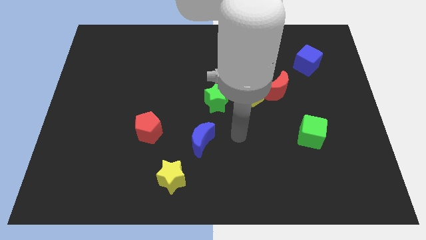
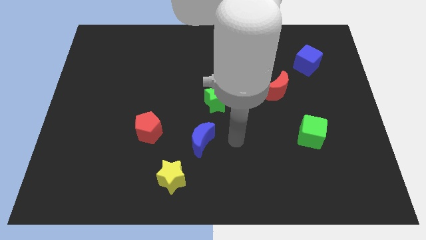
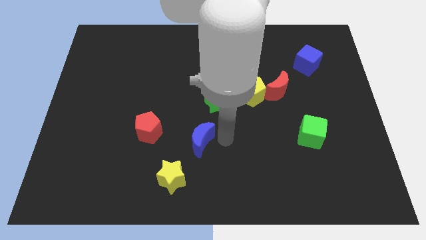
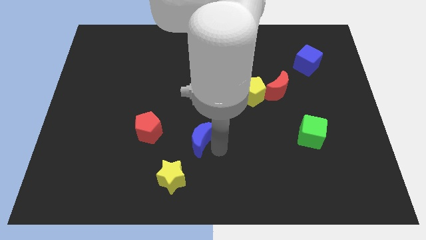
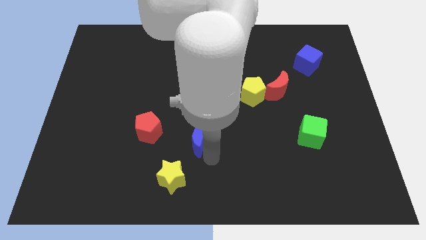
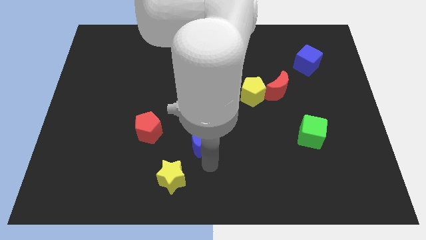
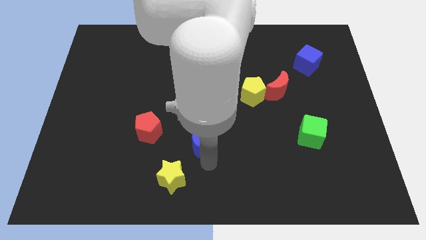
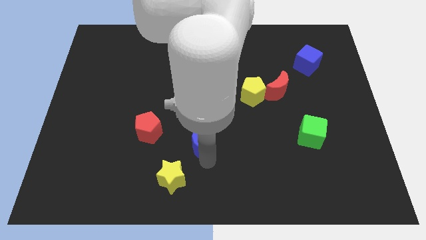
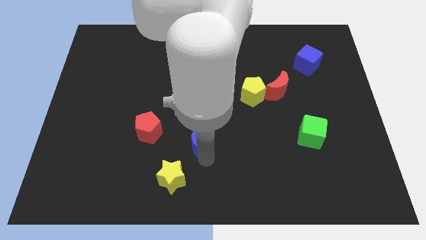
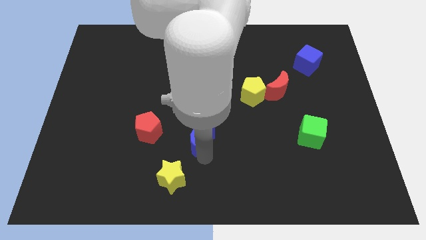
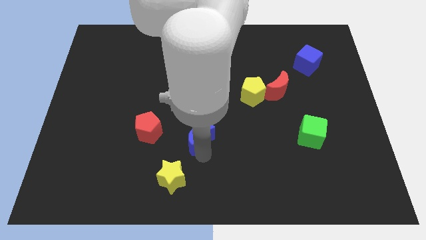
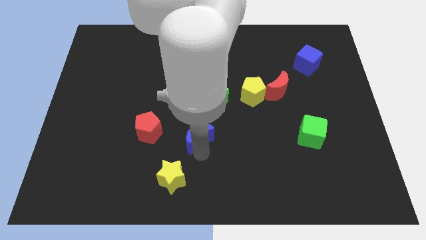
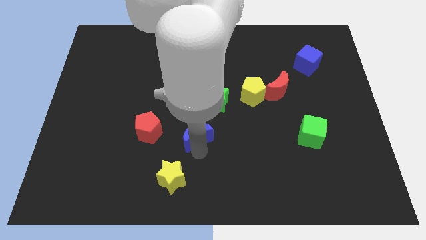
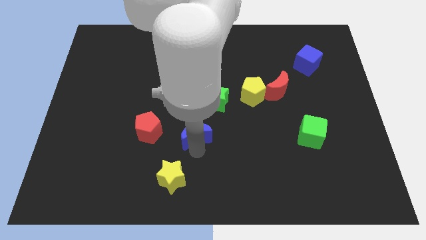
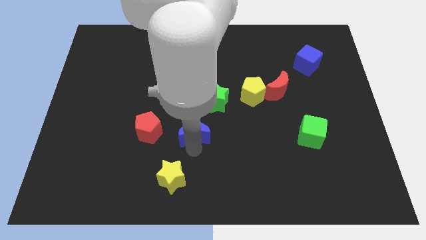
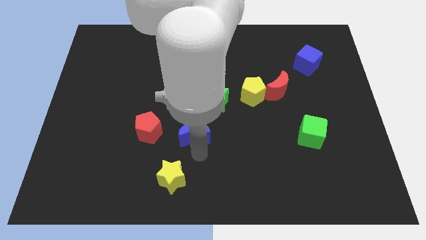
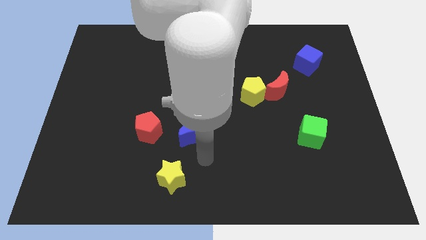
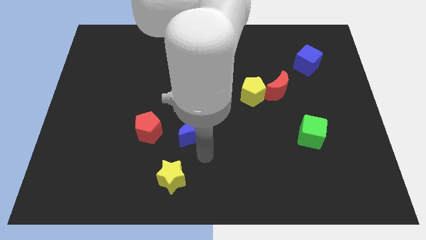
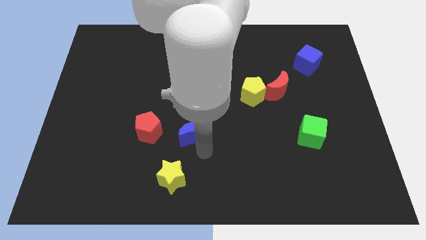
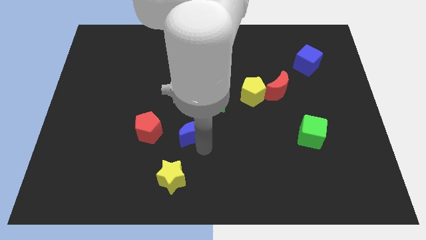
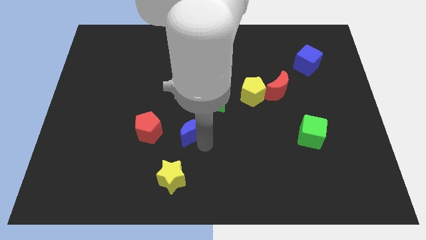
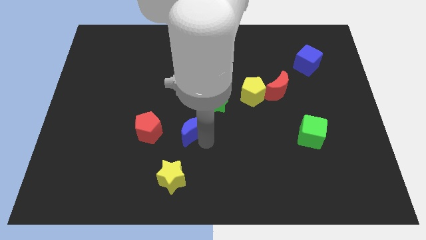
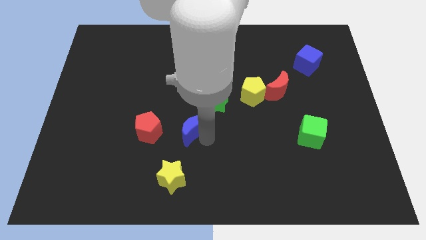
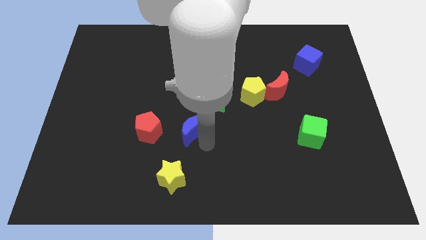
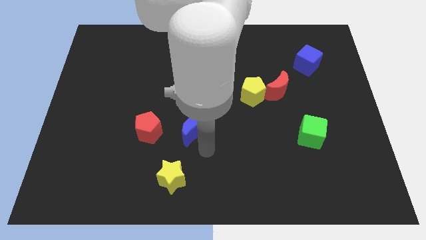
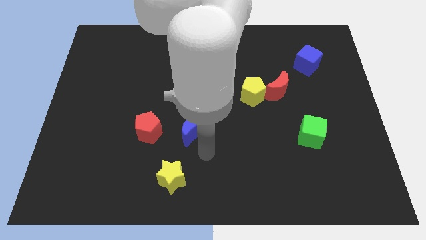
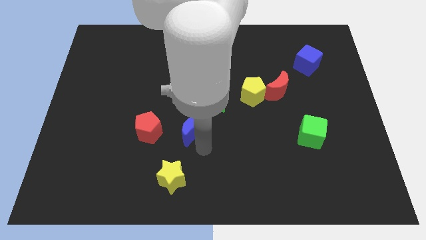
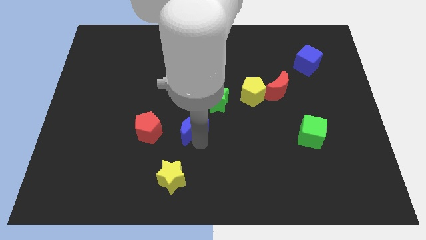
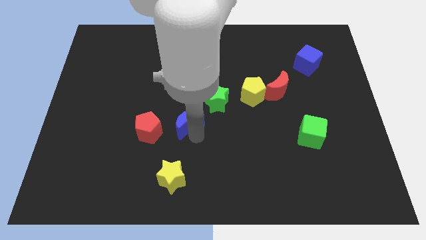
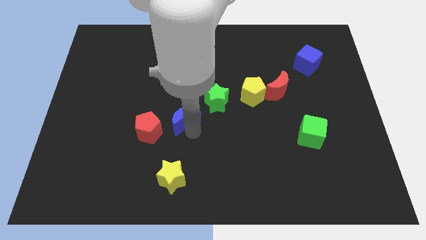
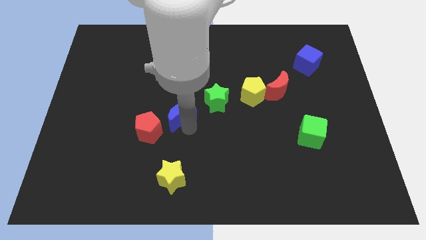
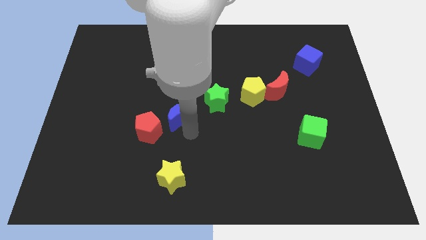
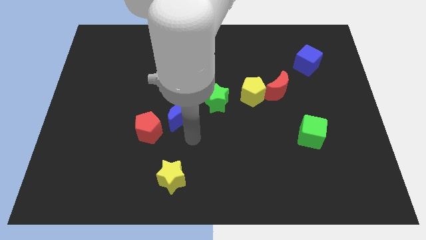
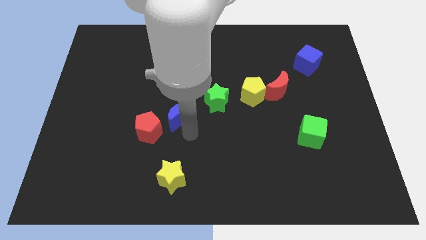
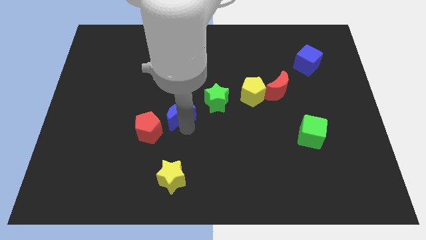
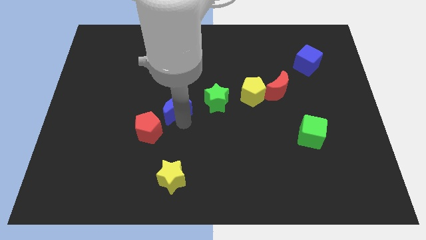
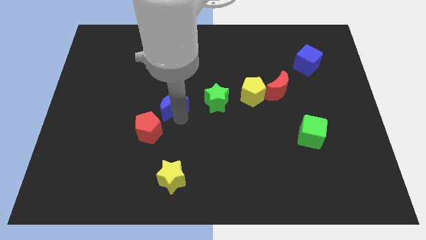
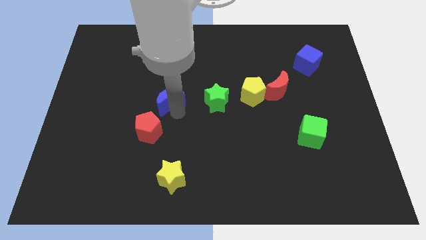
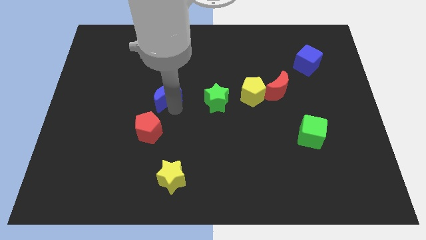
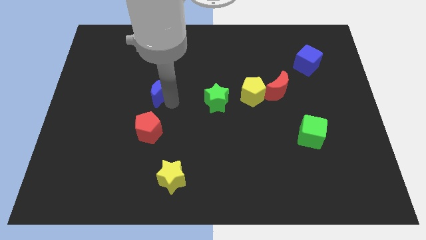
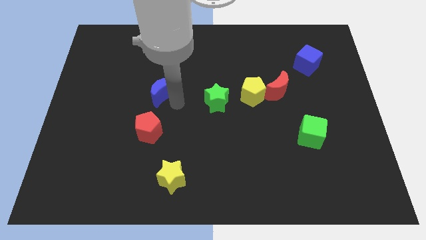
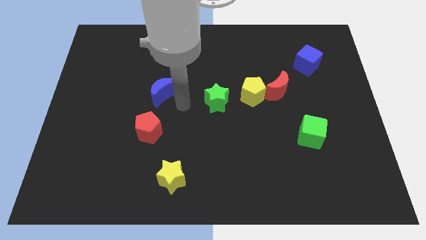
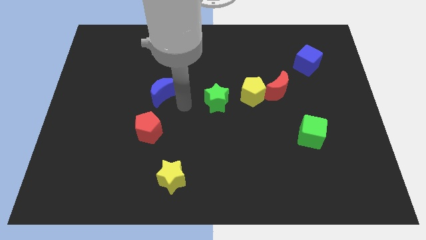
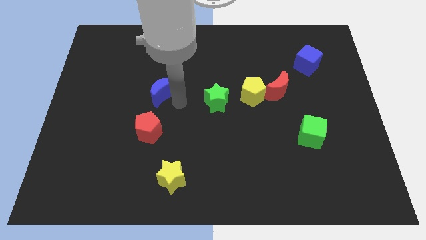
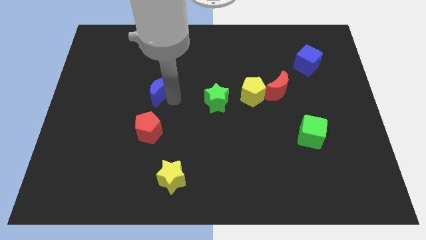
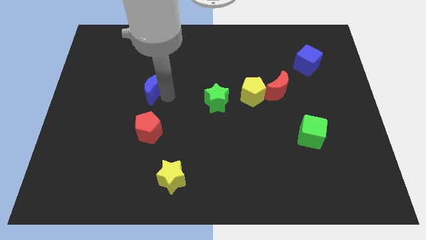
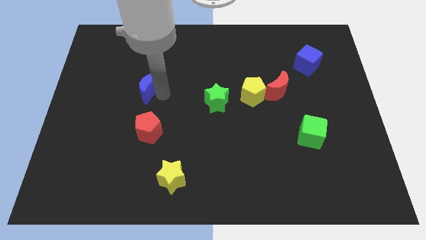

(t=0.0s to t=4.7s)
push the blue moon up and then to the left

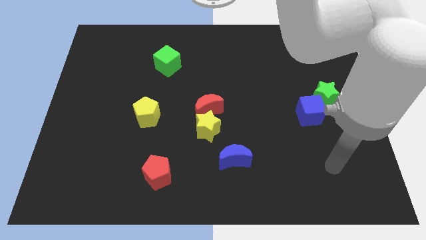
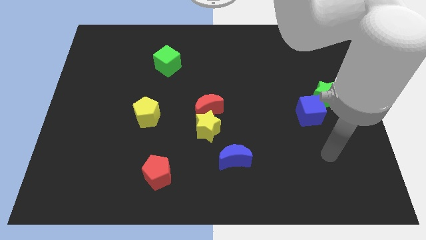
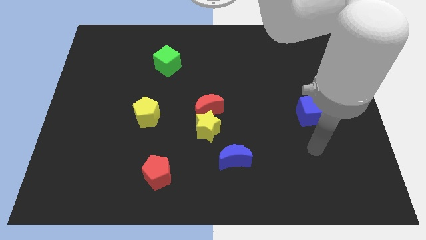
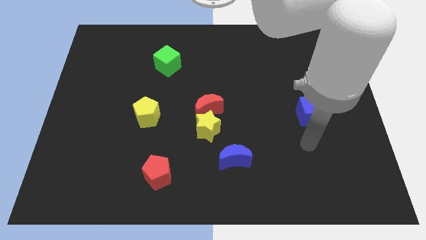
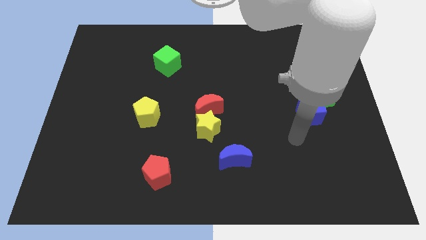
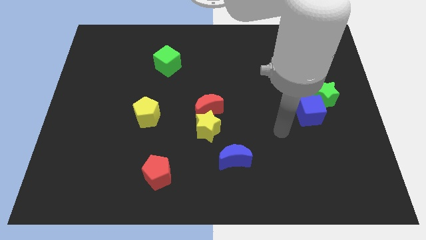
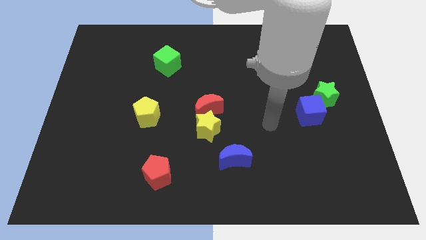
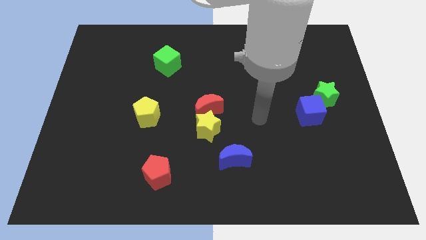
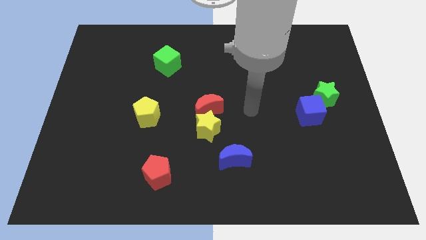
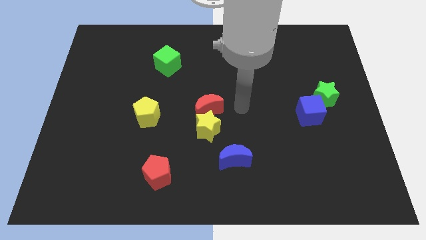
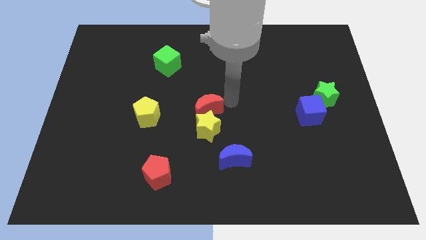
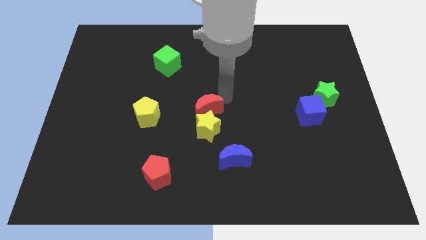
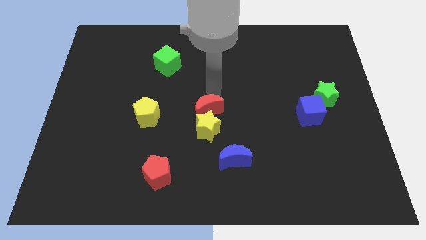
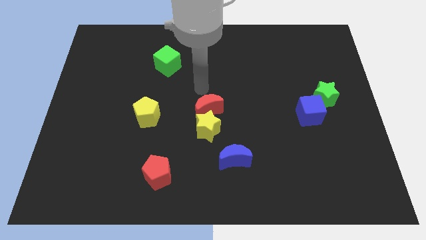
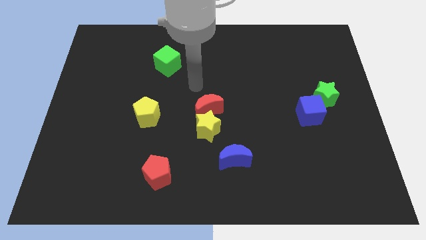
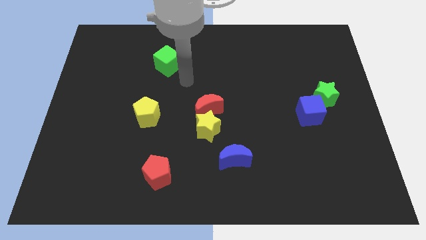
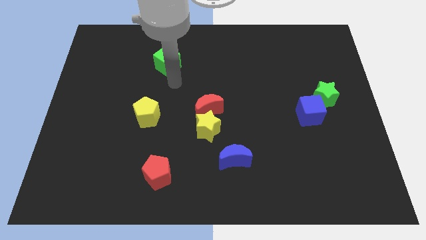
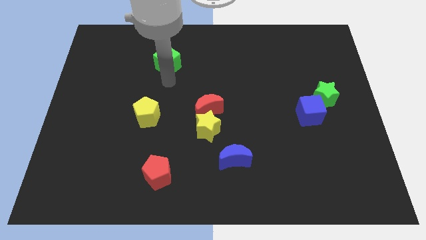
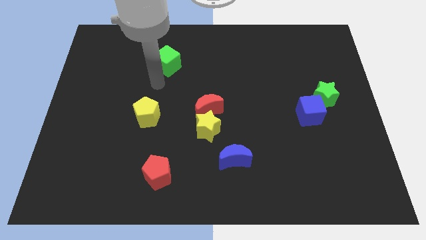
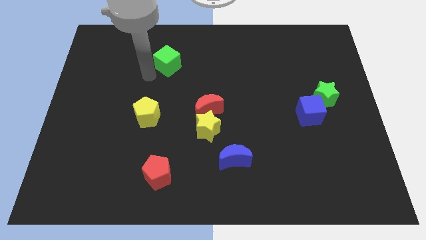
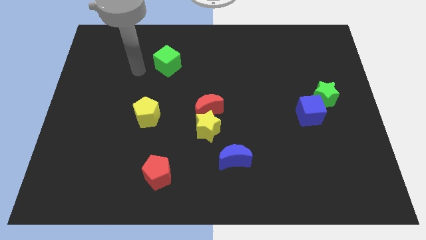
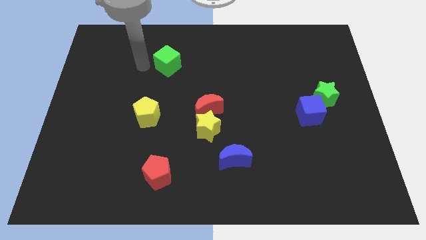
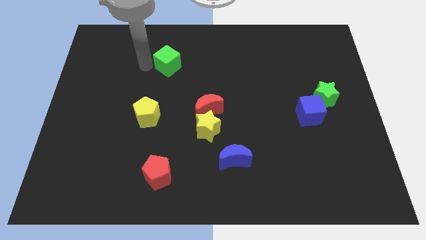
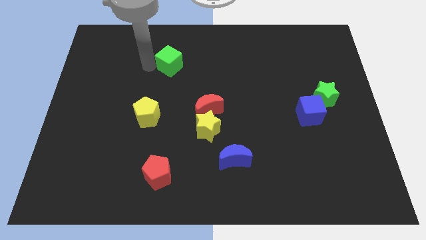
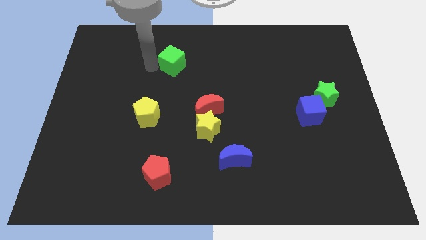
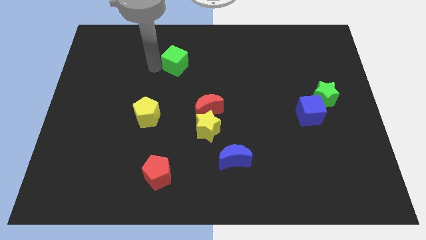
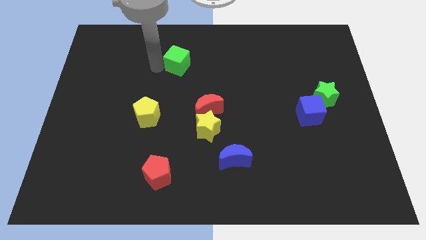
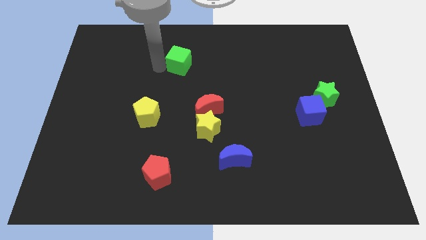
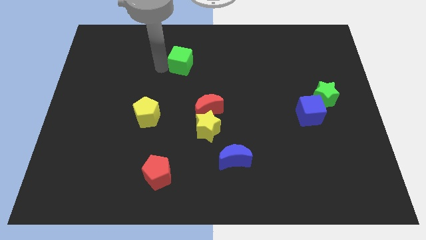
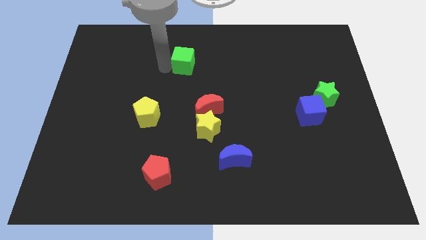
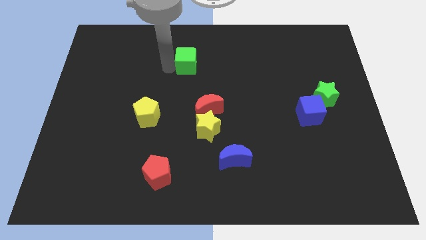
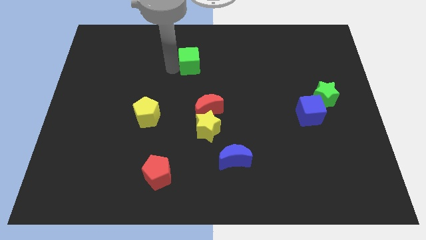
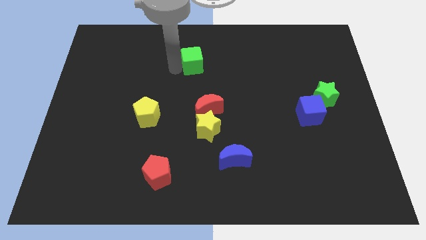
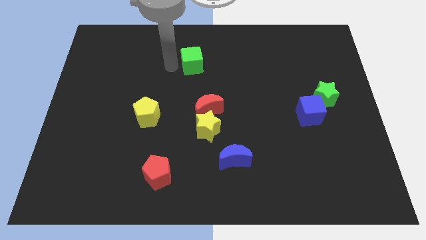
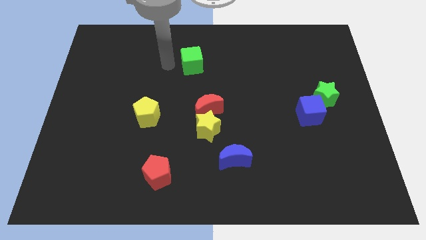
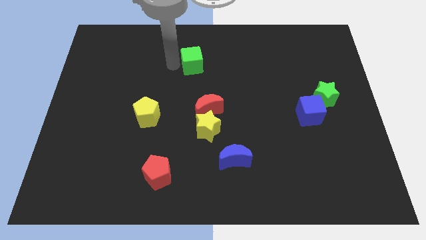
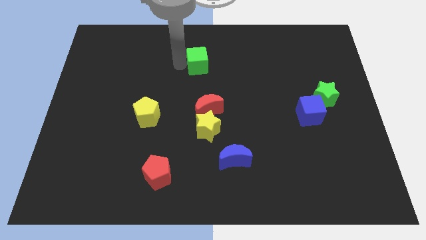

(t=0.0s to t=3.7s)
slightly push the green cube right
